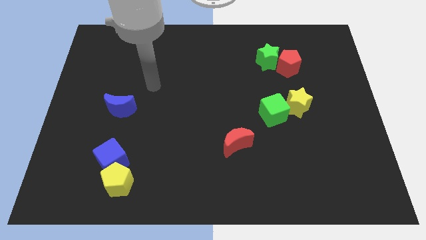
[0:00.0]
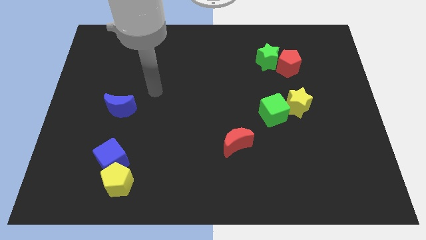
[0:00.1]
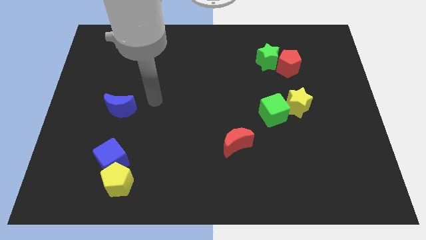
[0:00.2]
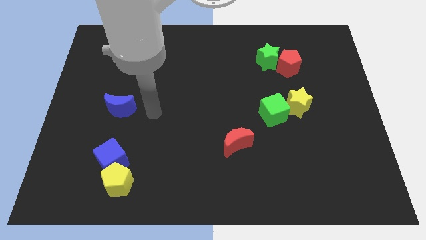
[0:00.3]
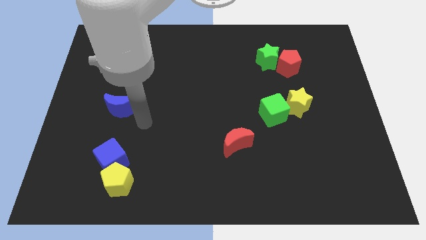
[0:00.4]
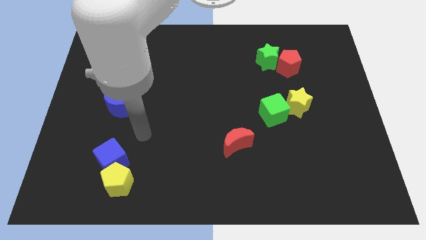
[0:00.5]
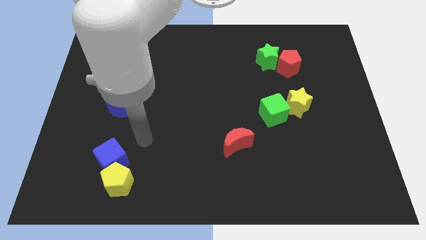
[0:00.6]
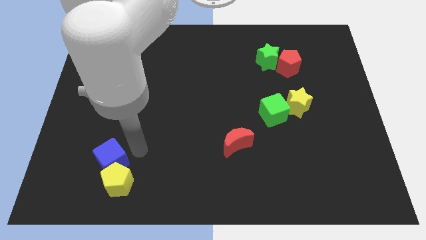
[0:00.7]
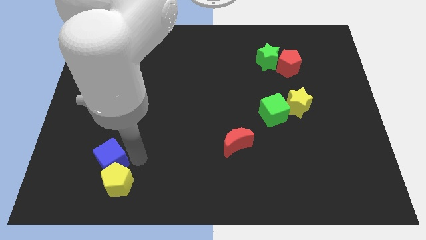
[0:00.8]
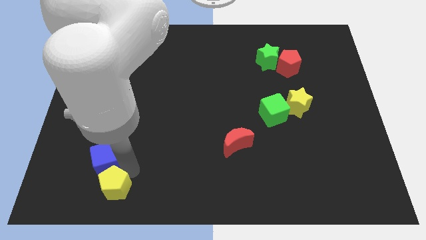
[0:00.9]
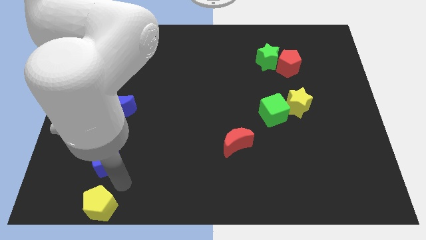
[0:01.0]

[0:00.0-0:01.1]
pull the blue cube apart from the yellow pentagon

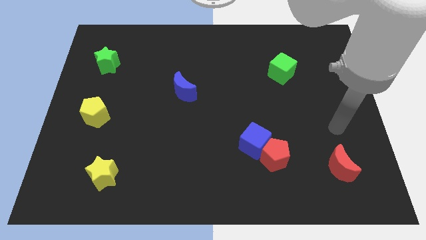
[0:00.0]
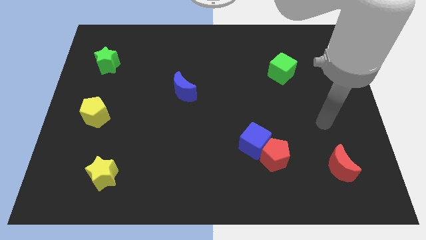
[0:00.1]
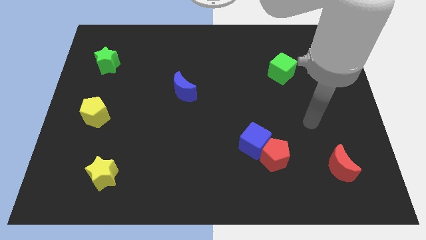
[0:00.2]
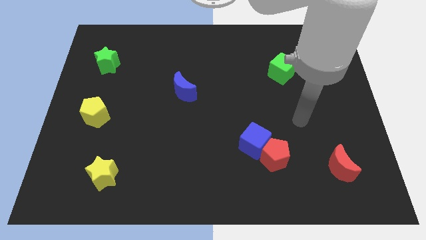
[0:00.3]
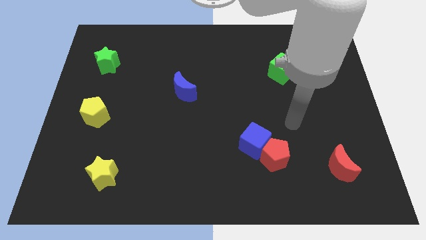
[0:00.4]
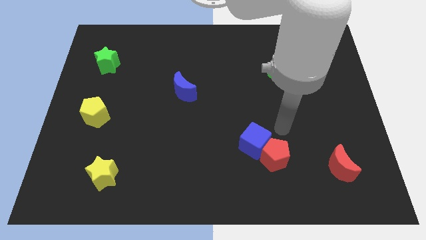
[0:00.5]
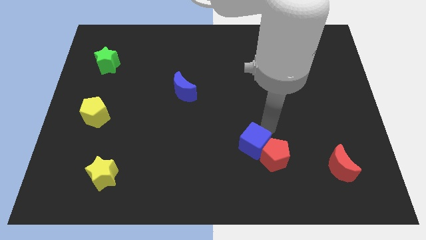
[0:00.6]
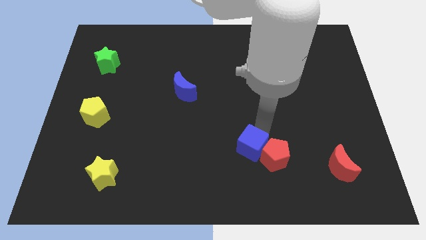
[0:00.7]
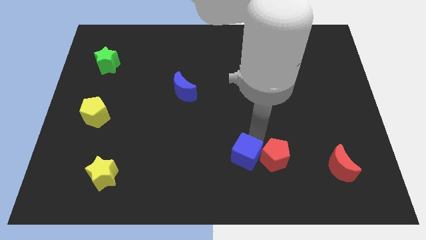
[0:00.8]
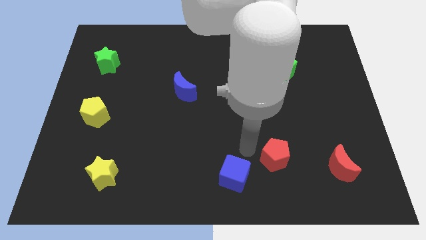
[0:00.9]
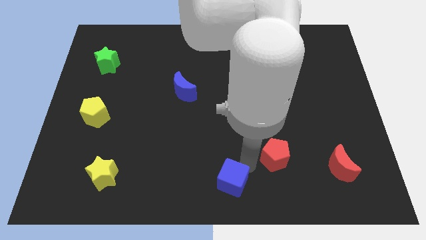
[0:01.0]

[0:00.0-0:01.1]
move the red pentagon away from the blue cube

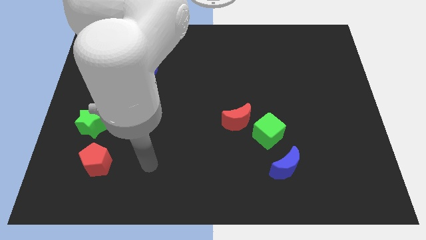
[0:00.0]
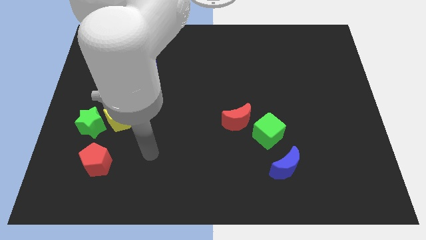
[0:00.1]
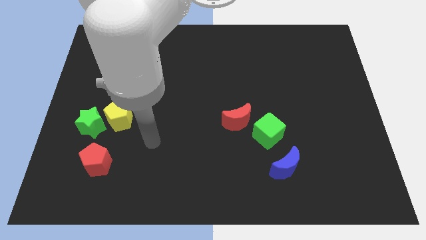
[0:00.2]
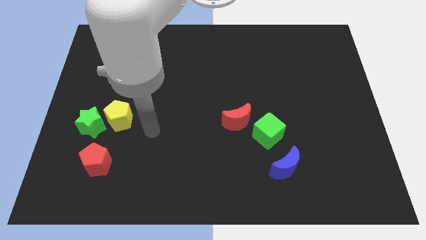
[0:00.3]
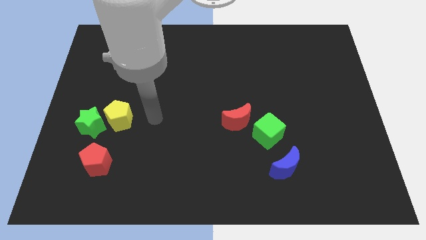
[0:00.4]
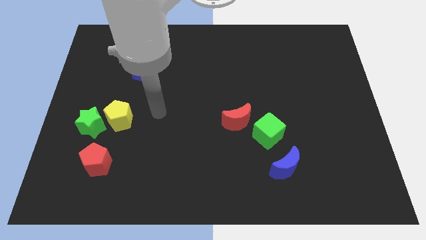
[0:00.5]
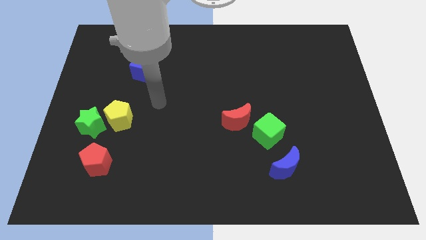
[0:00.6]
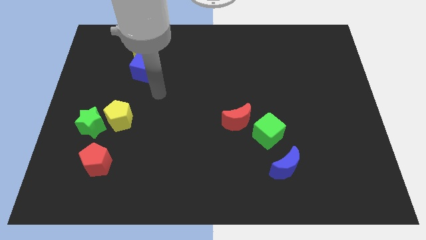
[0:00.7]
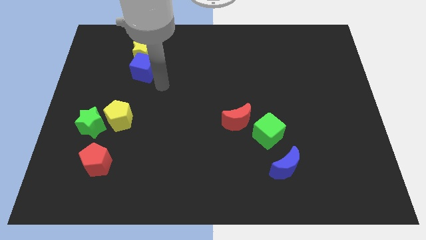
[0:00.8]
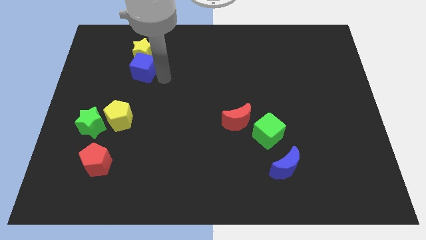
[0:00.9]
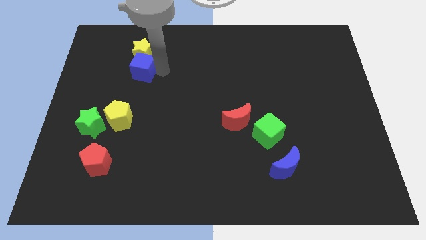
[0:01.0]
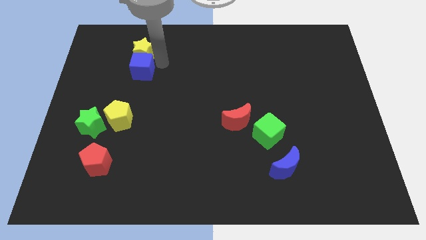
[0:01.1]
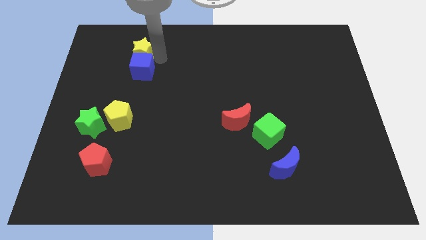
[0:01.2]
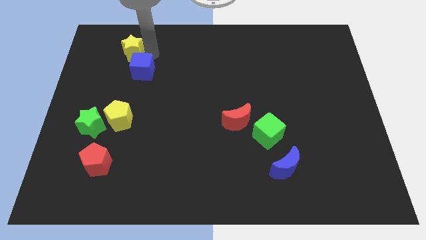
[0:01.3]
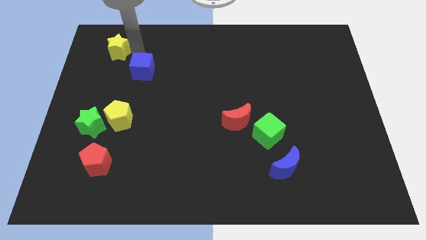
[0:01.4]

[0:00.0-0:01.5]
pull the blue cube apart from the yellow star

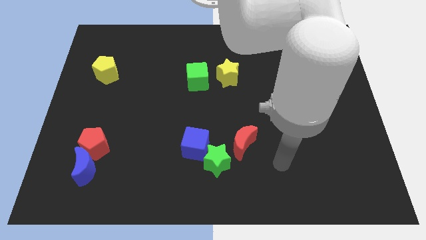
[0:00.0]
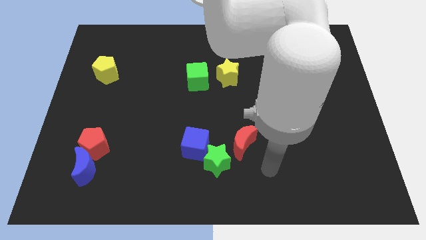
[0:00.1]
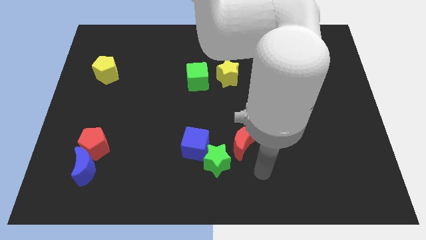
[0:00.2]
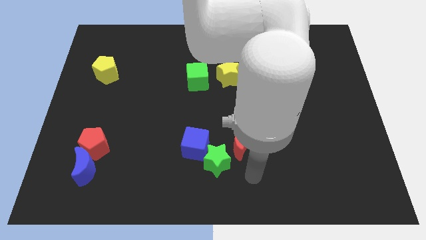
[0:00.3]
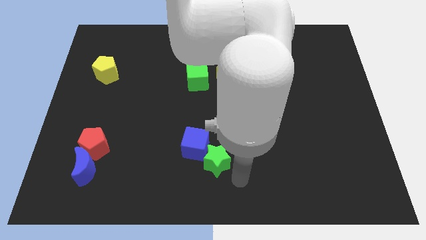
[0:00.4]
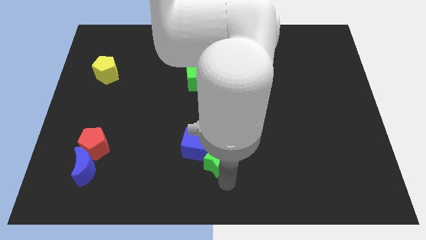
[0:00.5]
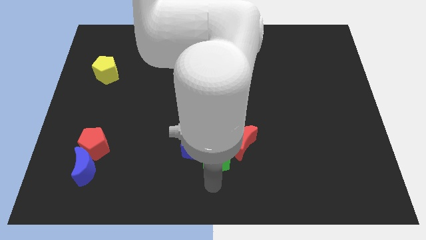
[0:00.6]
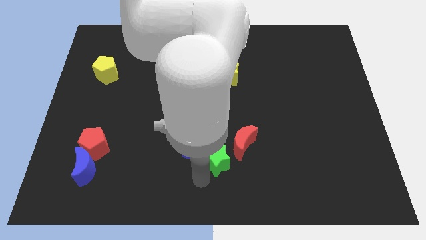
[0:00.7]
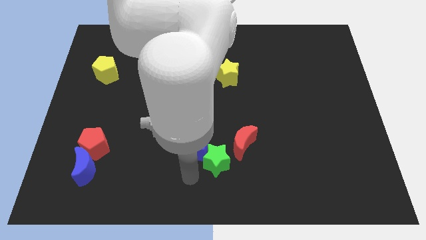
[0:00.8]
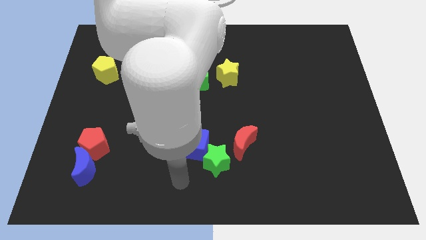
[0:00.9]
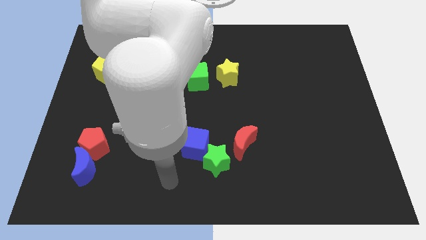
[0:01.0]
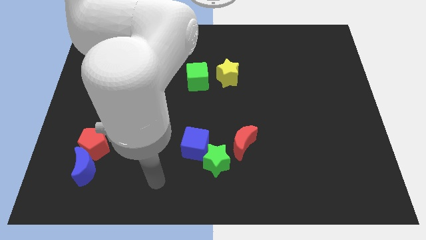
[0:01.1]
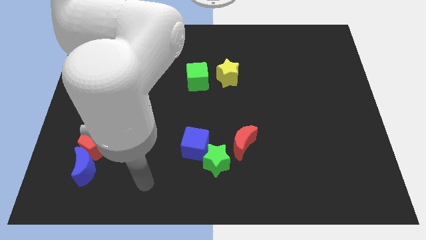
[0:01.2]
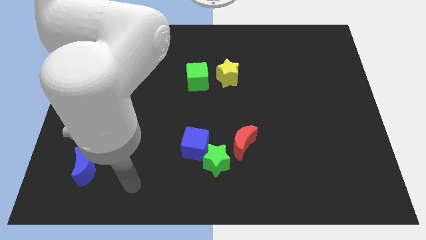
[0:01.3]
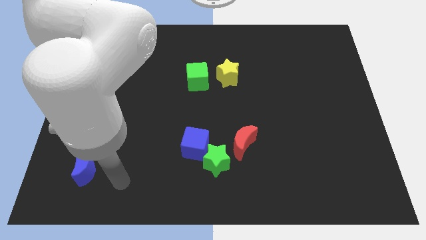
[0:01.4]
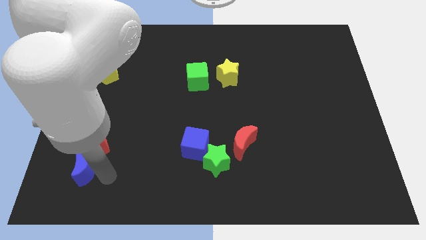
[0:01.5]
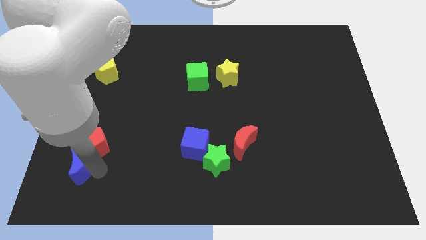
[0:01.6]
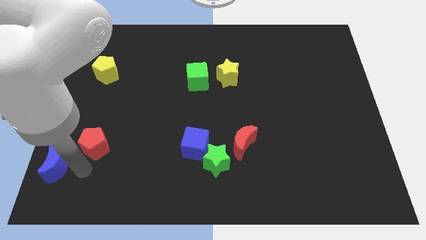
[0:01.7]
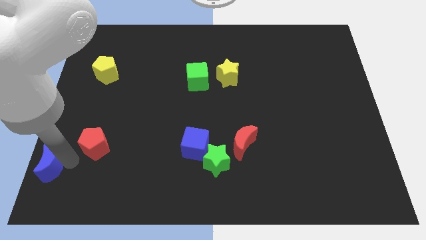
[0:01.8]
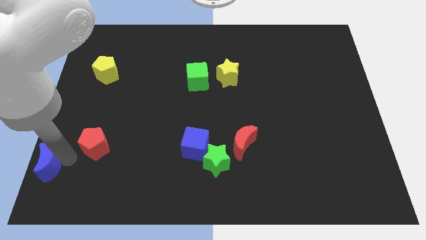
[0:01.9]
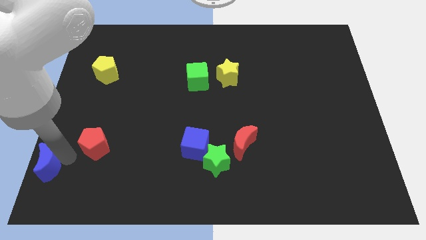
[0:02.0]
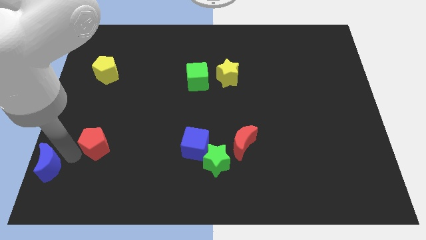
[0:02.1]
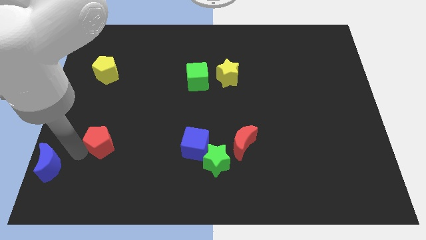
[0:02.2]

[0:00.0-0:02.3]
separate the red pentagon from the blue moon

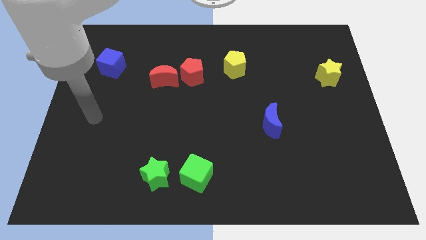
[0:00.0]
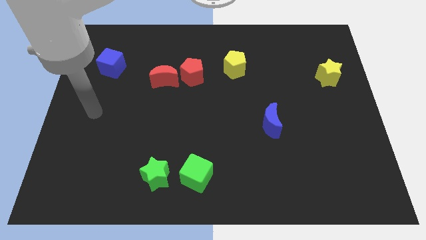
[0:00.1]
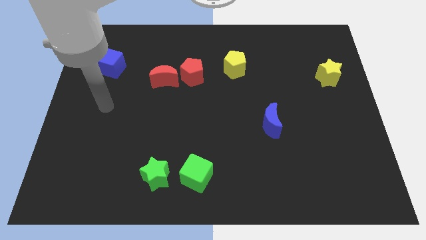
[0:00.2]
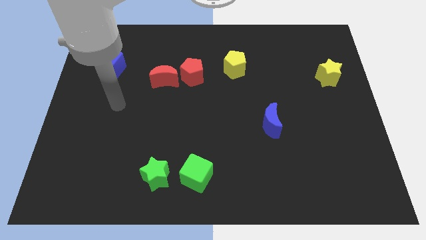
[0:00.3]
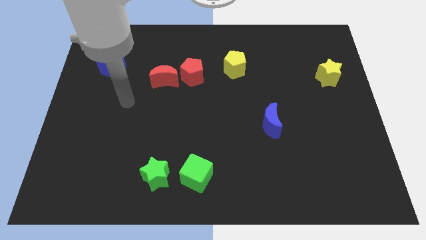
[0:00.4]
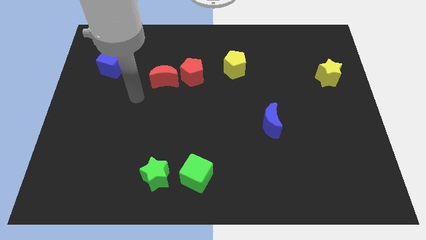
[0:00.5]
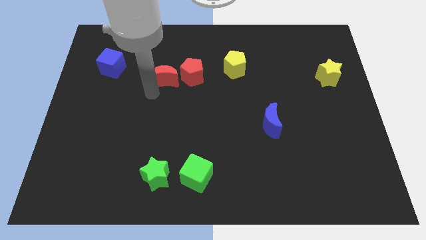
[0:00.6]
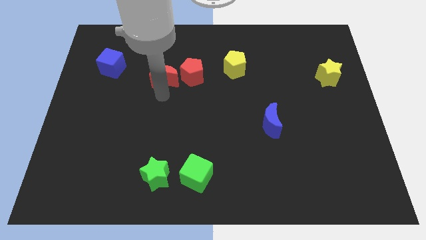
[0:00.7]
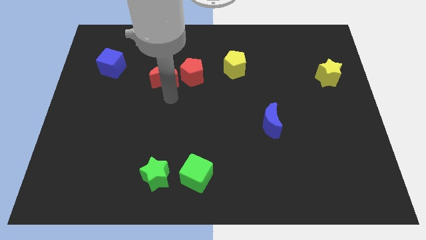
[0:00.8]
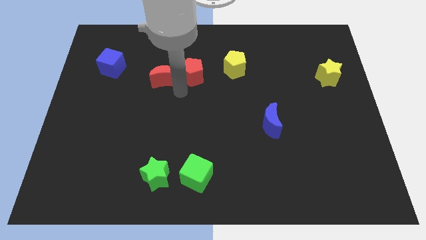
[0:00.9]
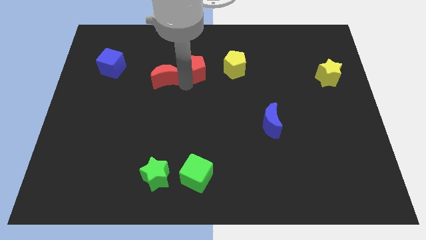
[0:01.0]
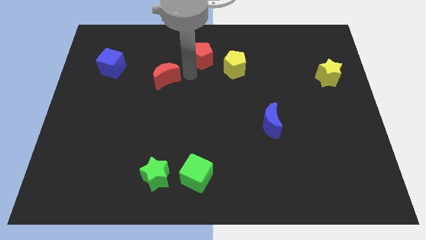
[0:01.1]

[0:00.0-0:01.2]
pull the red moon apart from the red pentagon

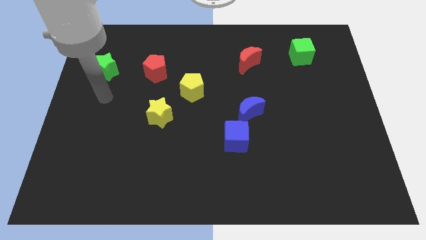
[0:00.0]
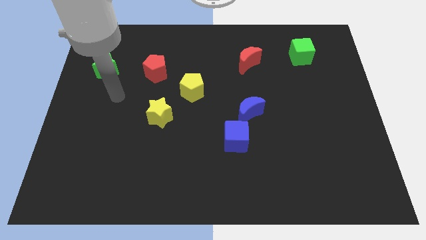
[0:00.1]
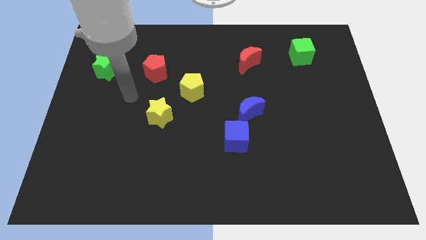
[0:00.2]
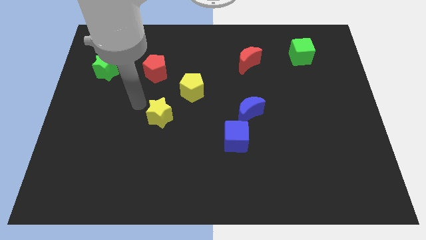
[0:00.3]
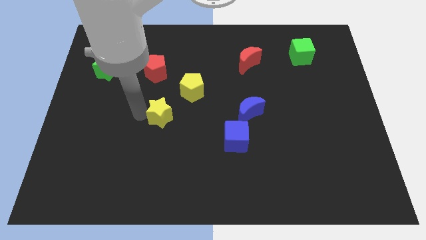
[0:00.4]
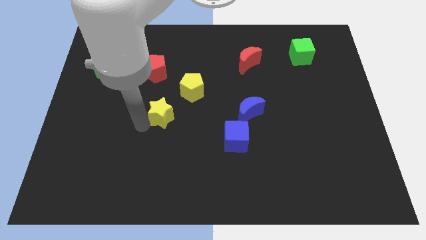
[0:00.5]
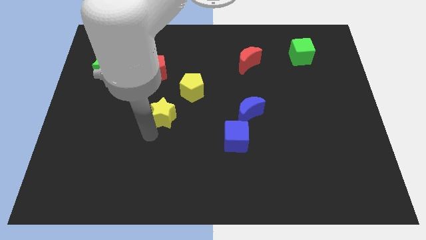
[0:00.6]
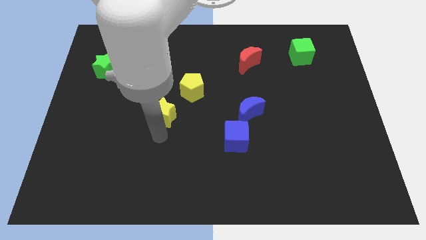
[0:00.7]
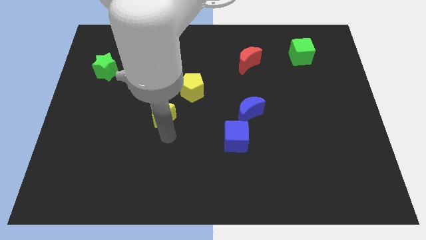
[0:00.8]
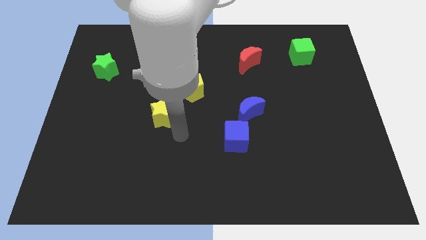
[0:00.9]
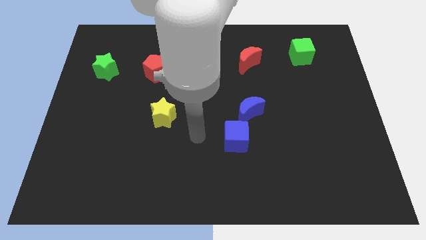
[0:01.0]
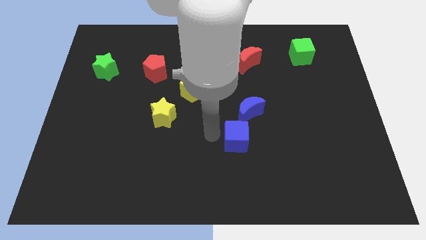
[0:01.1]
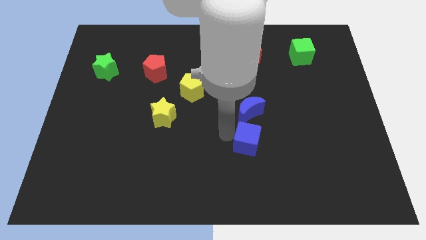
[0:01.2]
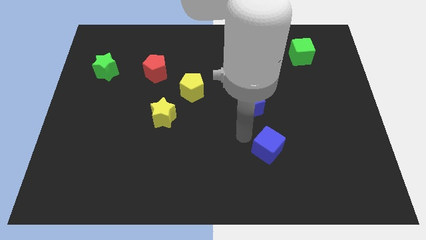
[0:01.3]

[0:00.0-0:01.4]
separate the blue moon from the blue cube

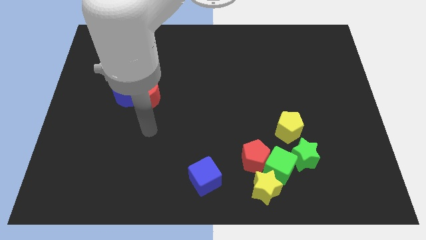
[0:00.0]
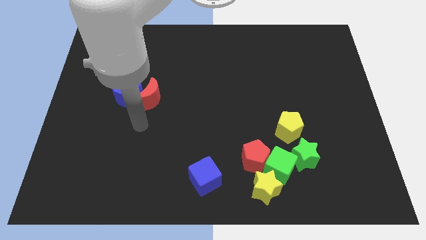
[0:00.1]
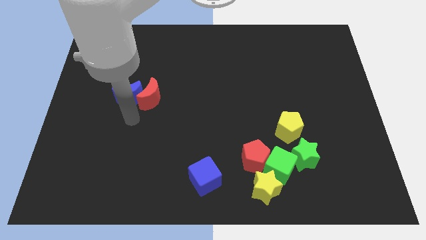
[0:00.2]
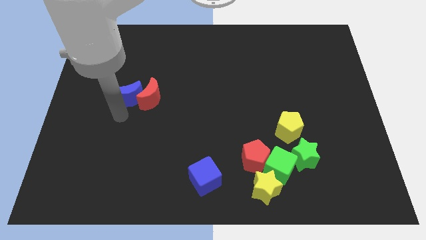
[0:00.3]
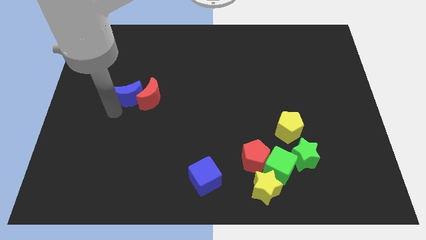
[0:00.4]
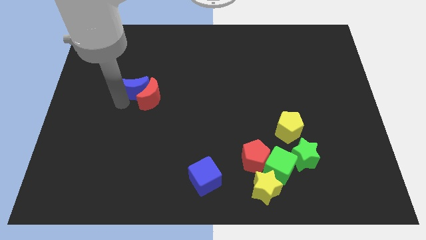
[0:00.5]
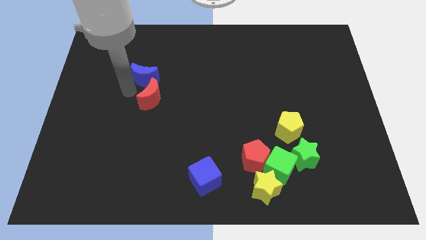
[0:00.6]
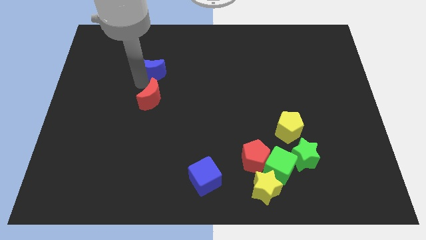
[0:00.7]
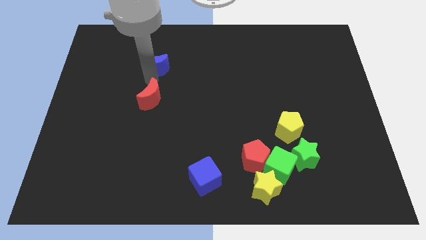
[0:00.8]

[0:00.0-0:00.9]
move the red moon away from the blue moon

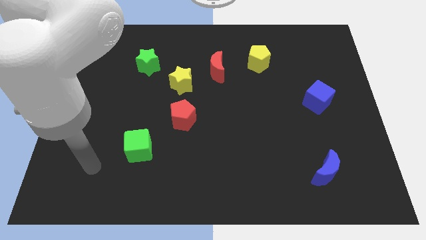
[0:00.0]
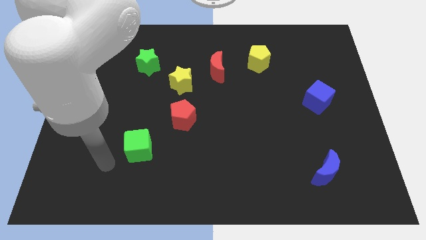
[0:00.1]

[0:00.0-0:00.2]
pull the red moon apart from the yellow star
